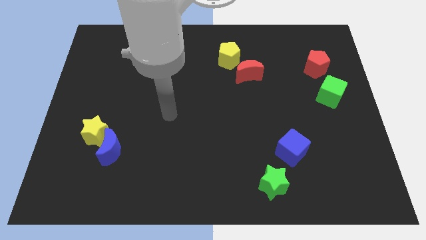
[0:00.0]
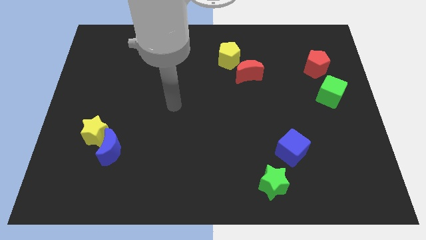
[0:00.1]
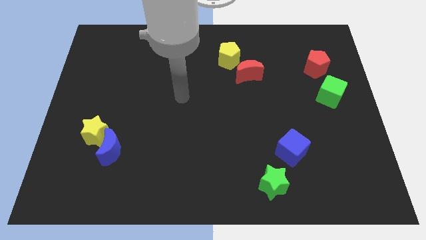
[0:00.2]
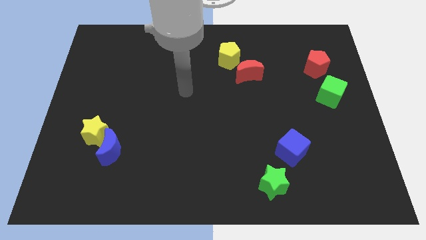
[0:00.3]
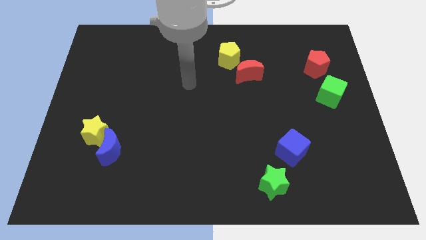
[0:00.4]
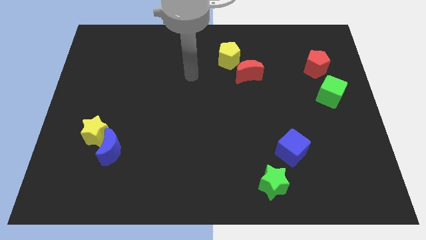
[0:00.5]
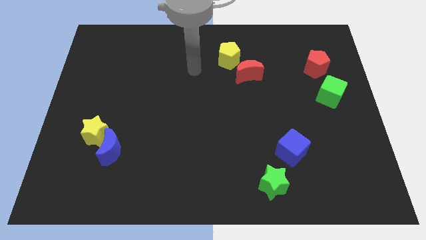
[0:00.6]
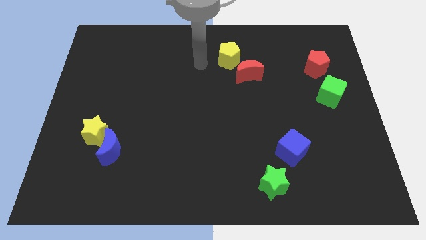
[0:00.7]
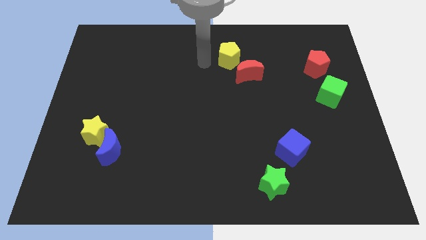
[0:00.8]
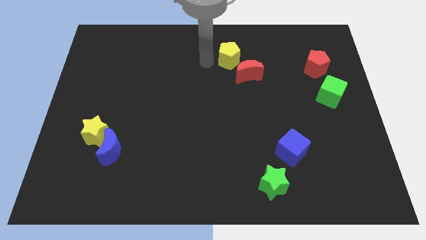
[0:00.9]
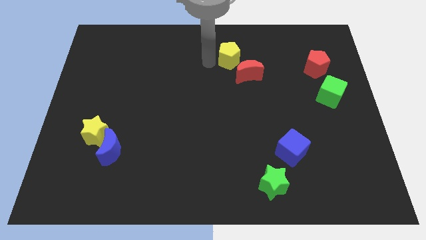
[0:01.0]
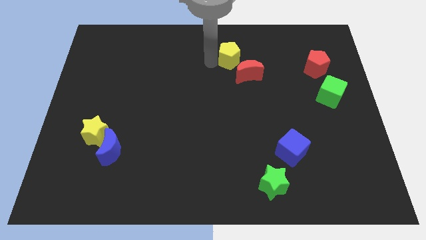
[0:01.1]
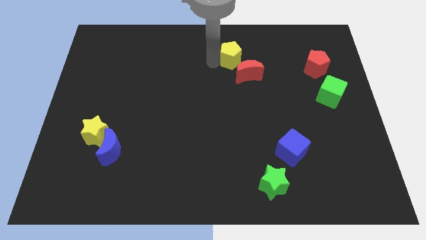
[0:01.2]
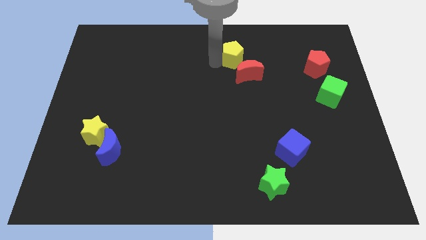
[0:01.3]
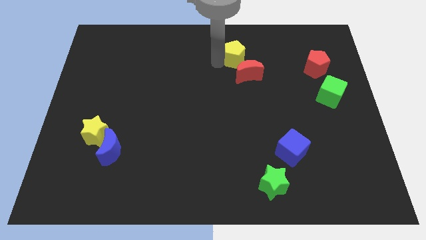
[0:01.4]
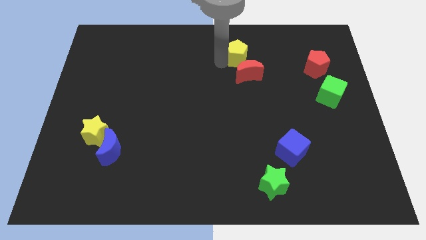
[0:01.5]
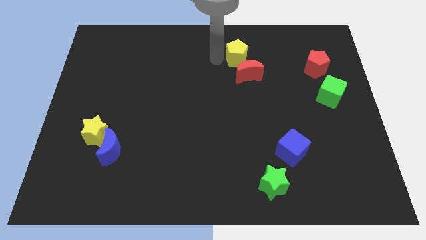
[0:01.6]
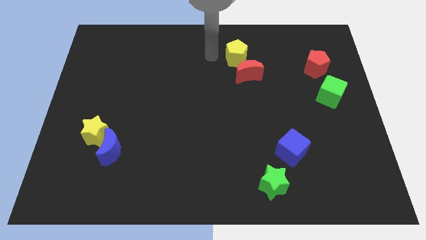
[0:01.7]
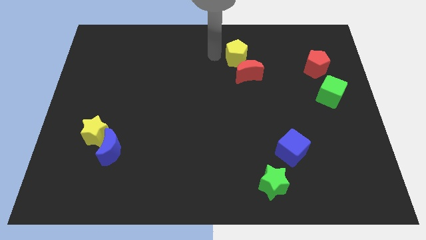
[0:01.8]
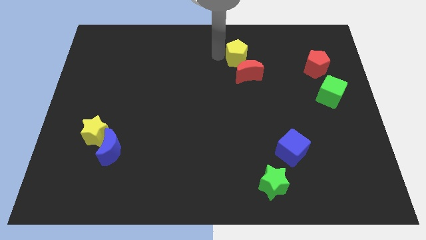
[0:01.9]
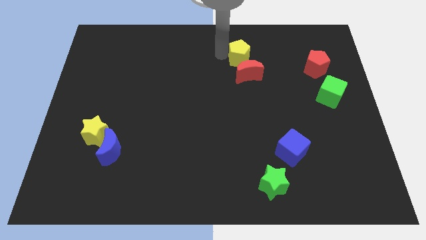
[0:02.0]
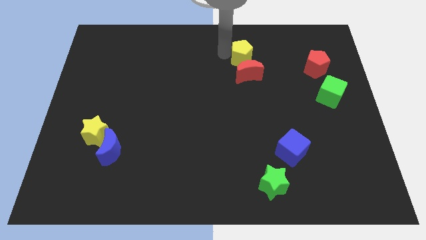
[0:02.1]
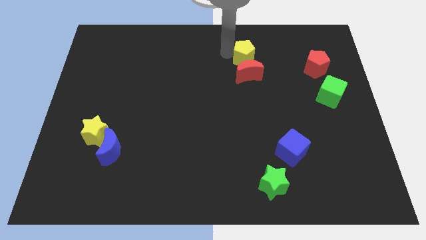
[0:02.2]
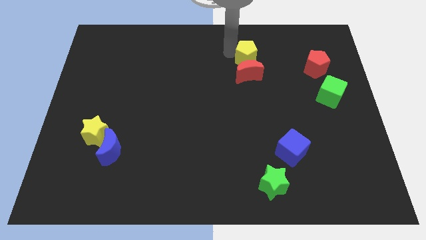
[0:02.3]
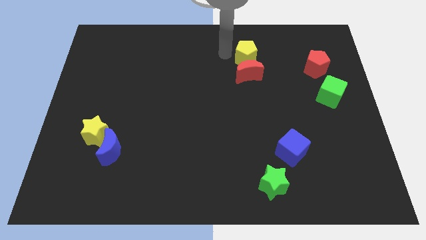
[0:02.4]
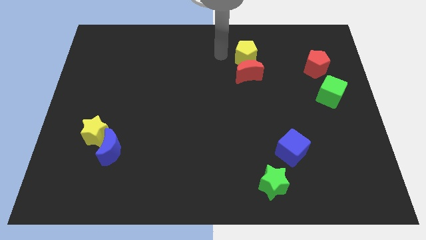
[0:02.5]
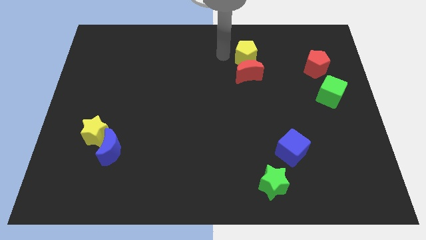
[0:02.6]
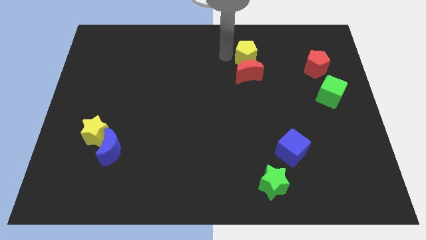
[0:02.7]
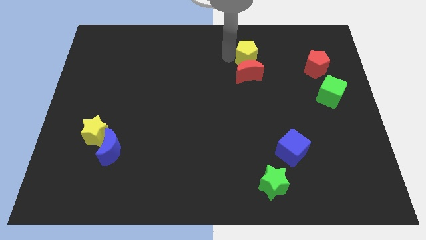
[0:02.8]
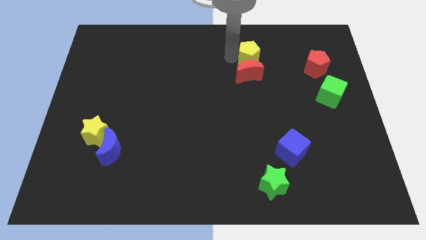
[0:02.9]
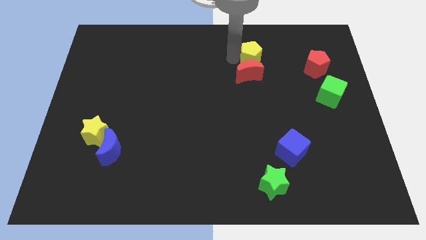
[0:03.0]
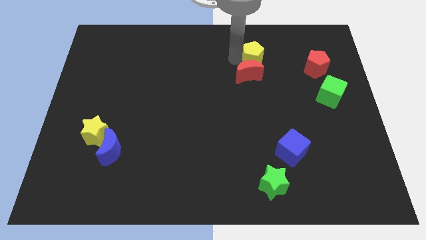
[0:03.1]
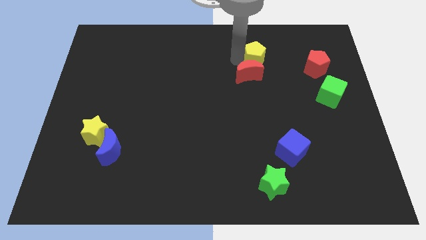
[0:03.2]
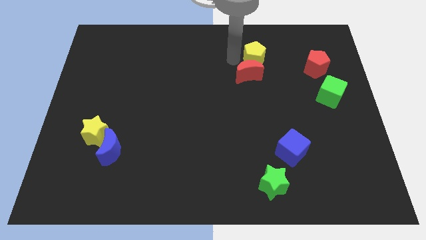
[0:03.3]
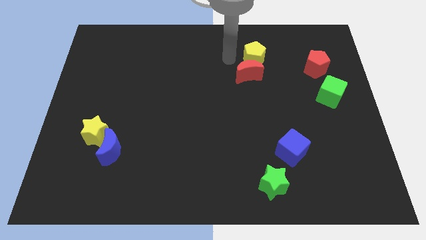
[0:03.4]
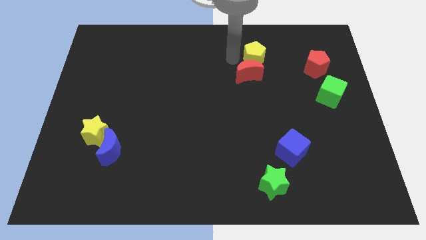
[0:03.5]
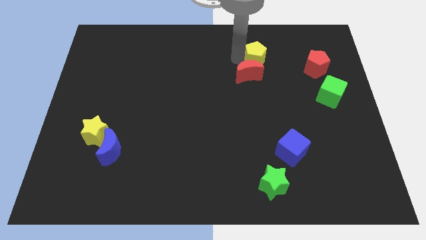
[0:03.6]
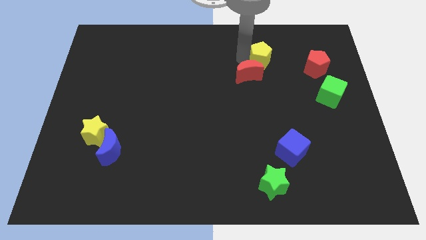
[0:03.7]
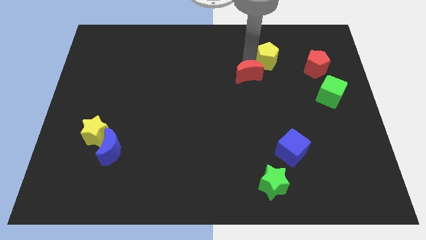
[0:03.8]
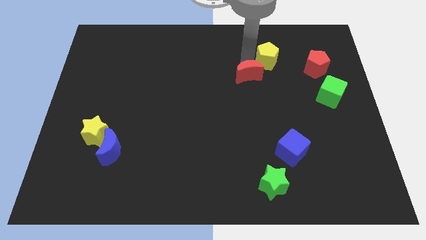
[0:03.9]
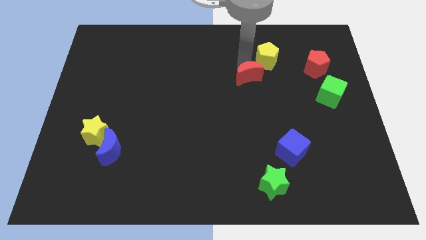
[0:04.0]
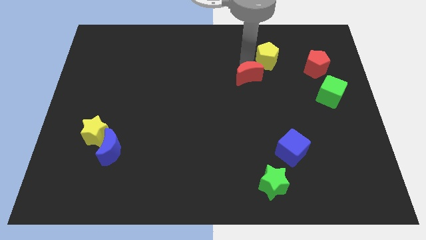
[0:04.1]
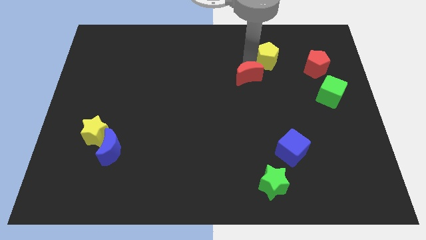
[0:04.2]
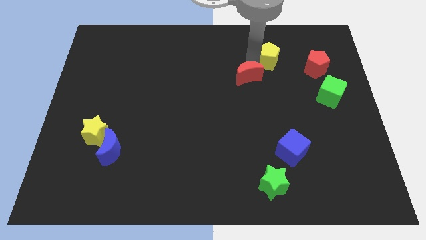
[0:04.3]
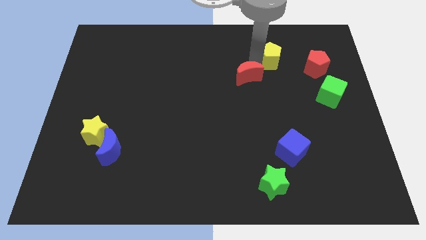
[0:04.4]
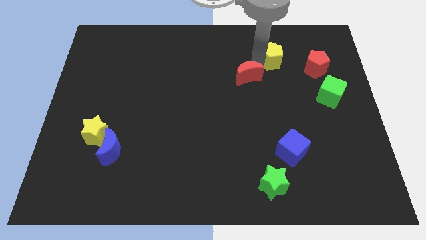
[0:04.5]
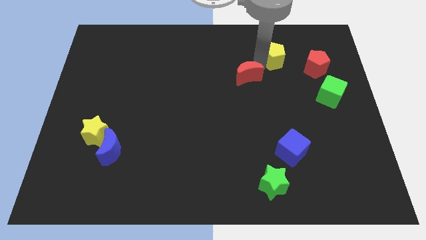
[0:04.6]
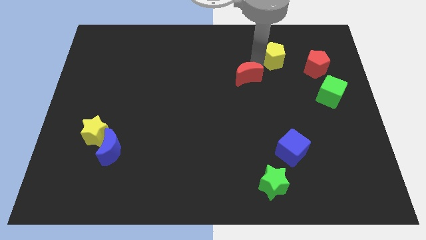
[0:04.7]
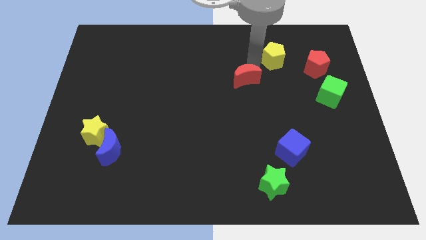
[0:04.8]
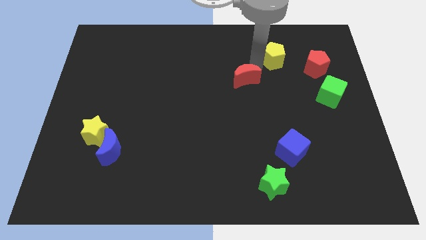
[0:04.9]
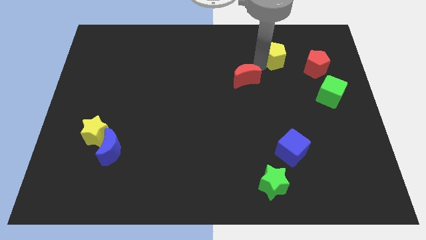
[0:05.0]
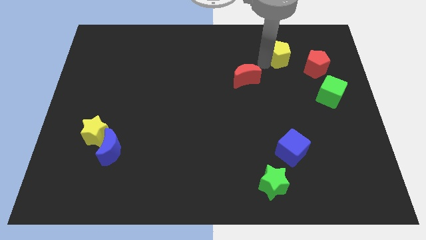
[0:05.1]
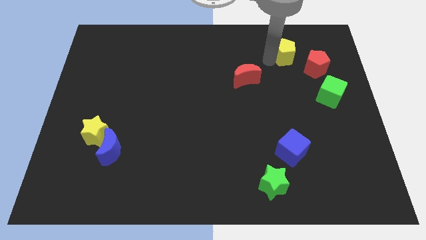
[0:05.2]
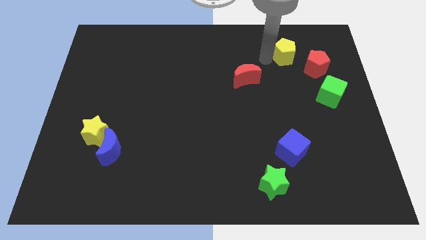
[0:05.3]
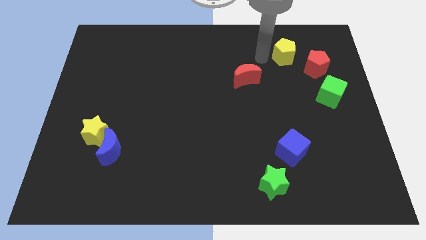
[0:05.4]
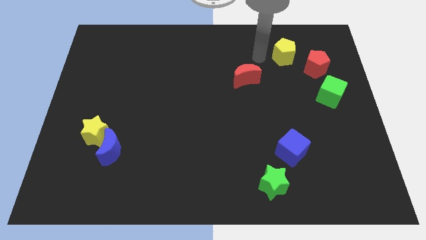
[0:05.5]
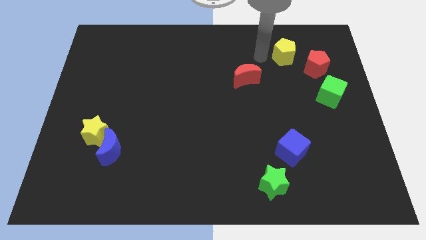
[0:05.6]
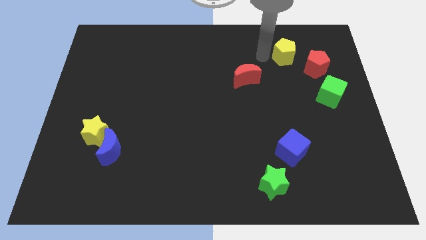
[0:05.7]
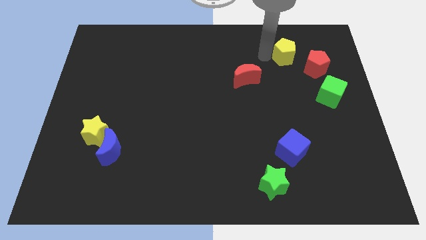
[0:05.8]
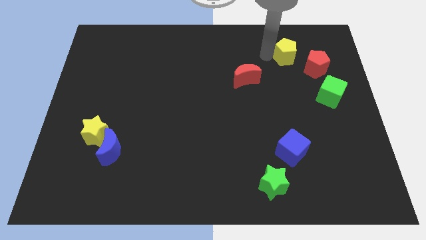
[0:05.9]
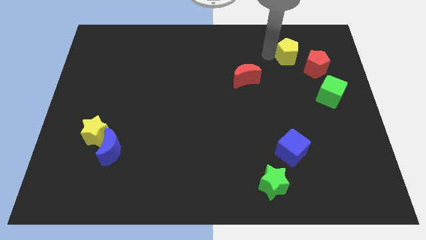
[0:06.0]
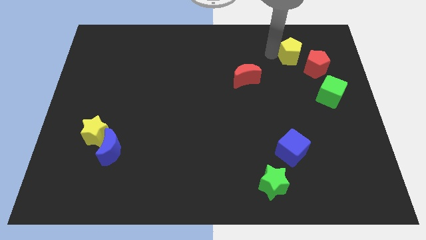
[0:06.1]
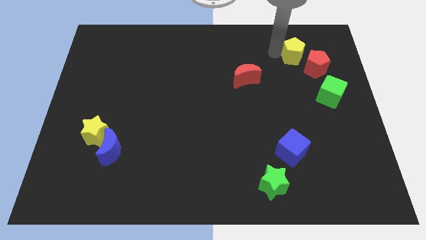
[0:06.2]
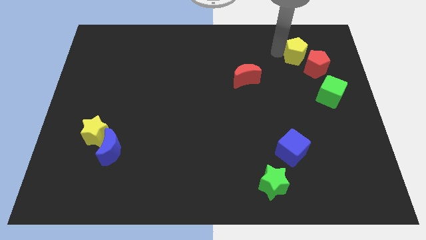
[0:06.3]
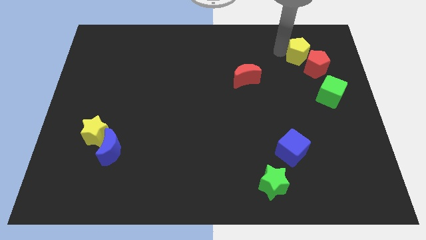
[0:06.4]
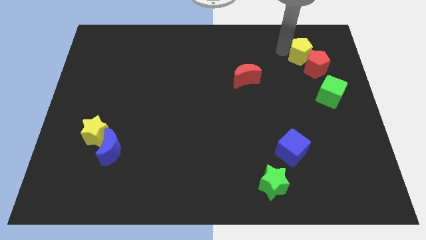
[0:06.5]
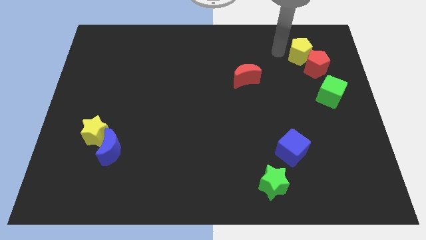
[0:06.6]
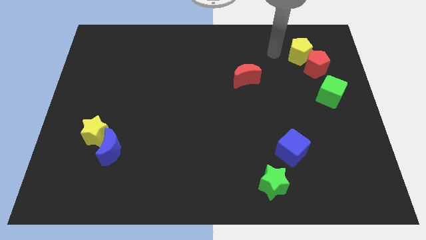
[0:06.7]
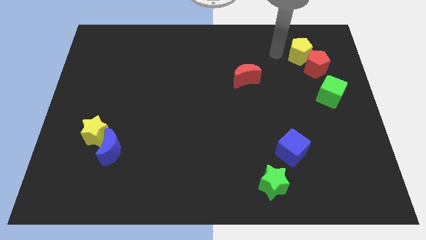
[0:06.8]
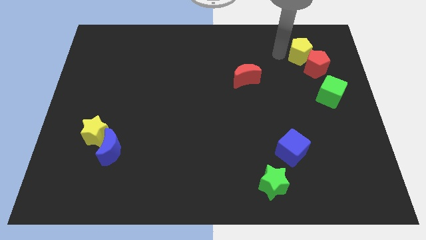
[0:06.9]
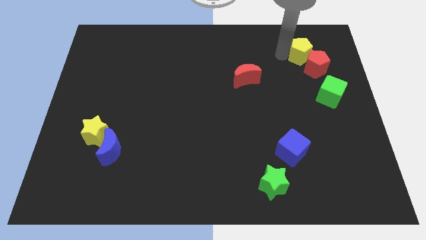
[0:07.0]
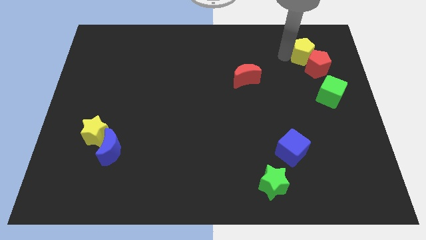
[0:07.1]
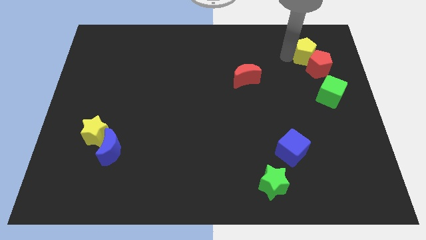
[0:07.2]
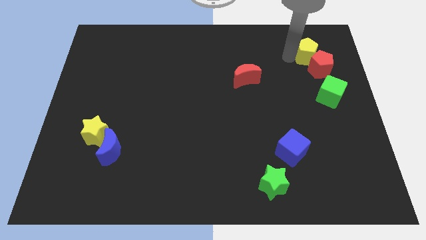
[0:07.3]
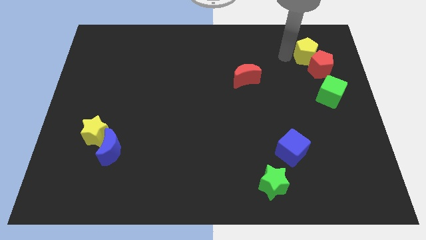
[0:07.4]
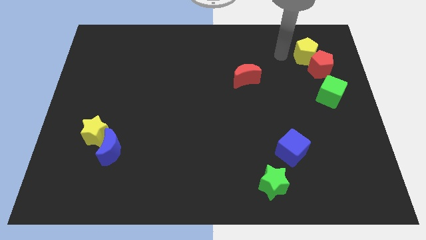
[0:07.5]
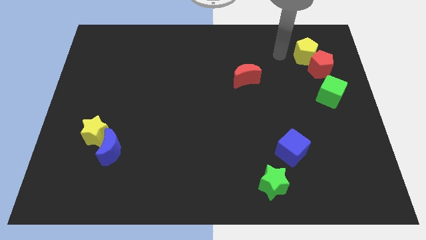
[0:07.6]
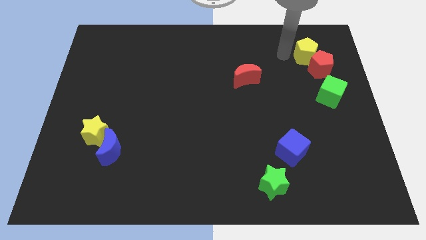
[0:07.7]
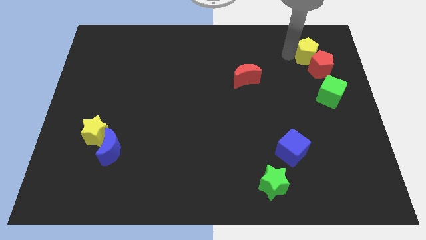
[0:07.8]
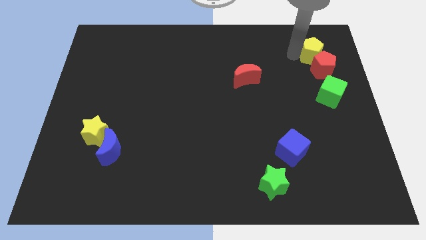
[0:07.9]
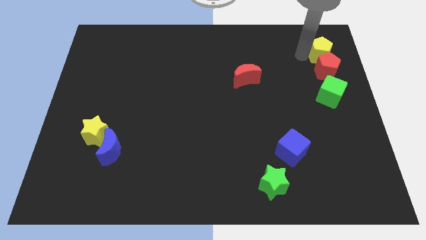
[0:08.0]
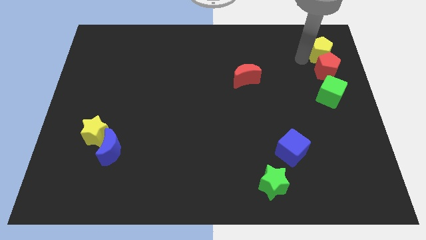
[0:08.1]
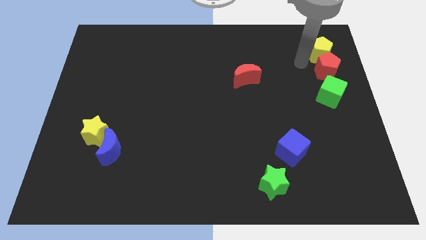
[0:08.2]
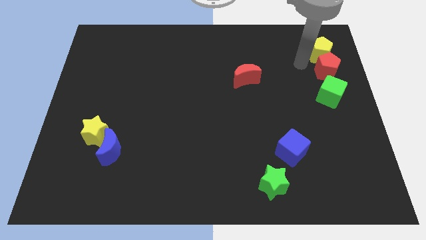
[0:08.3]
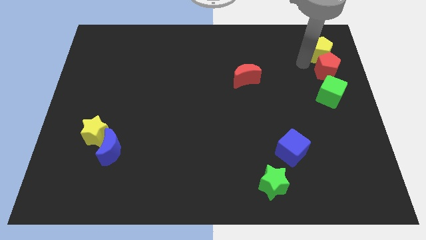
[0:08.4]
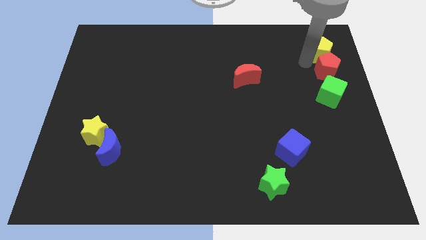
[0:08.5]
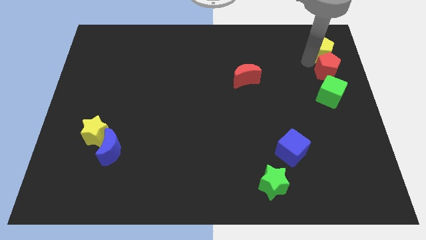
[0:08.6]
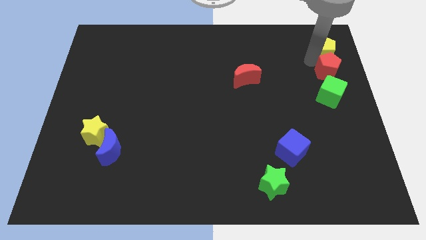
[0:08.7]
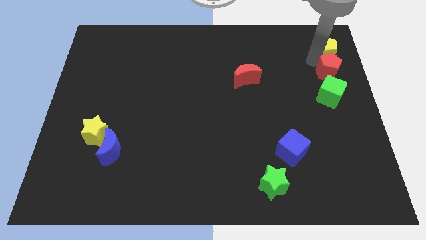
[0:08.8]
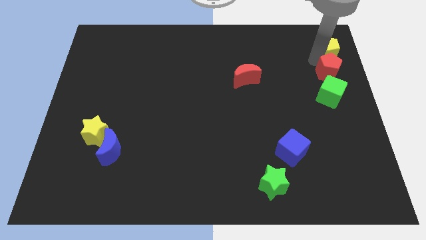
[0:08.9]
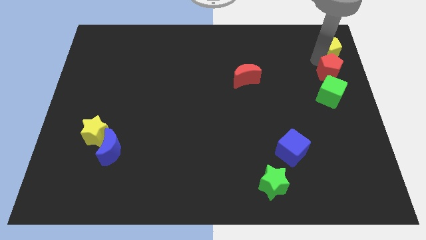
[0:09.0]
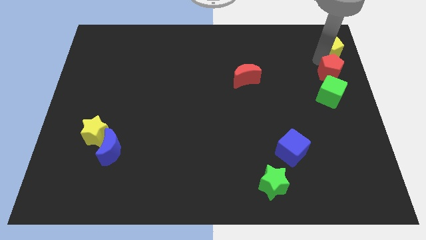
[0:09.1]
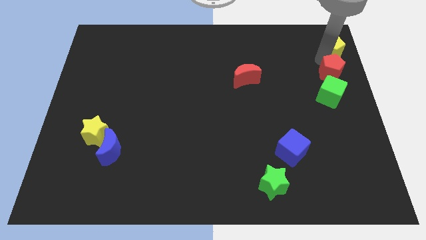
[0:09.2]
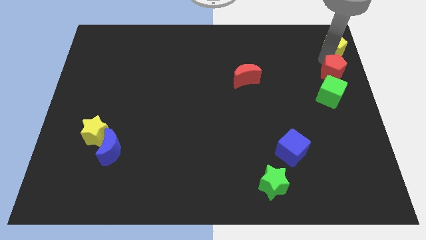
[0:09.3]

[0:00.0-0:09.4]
slide the yellow pentagon to the top right
